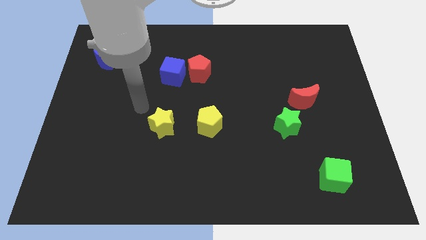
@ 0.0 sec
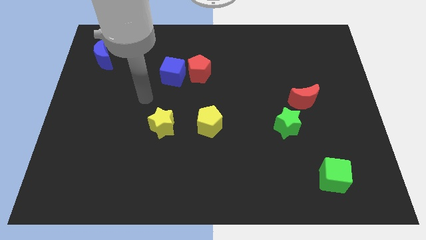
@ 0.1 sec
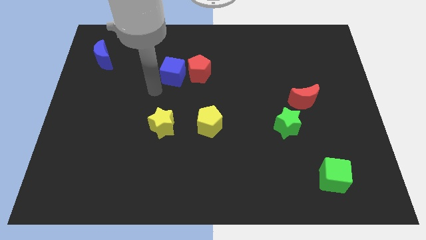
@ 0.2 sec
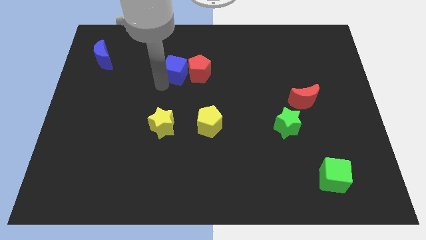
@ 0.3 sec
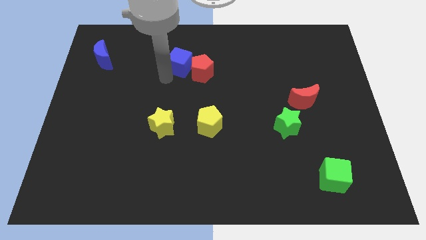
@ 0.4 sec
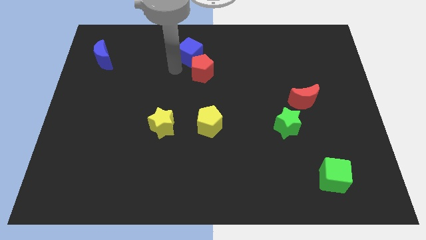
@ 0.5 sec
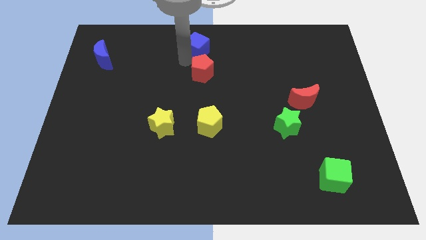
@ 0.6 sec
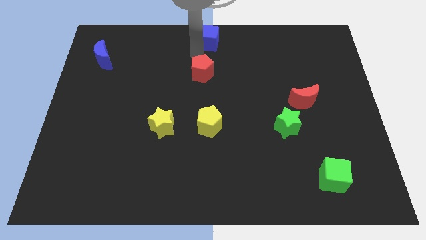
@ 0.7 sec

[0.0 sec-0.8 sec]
separate the red pentagon from the blue cube

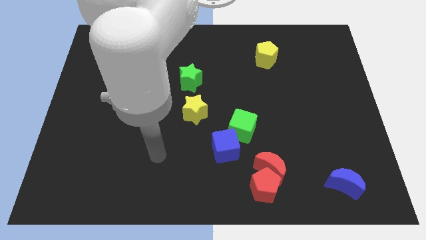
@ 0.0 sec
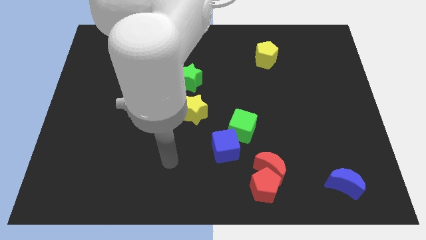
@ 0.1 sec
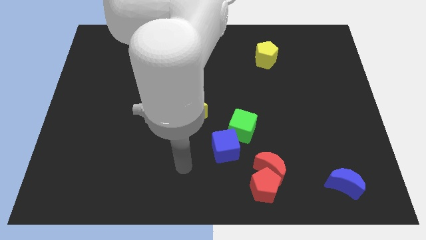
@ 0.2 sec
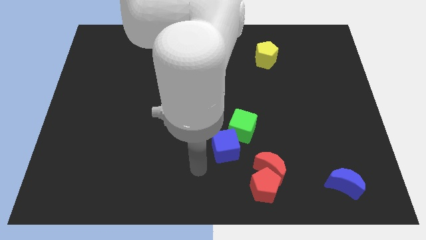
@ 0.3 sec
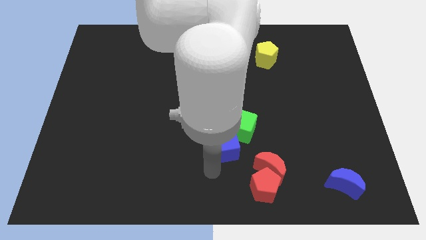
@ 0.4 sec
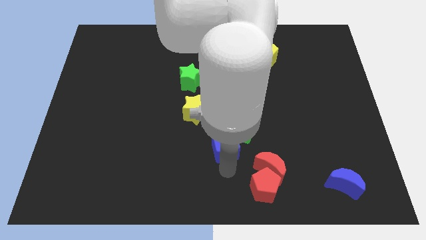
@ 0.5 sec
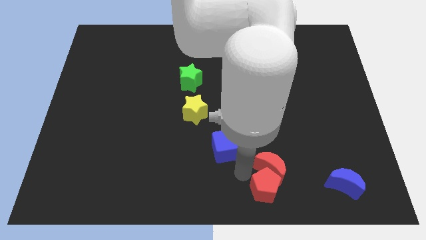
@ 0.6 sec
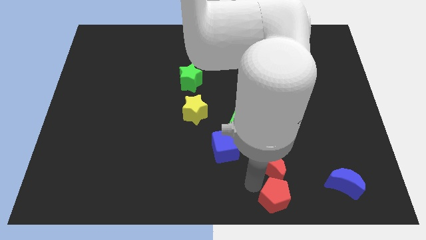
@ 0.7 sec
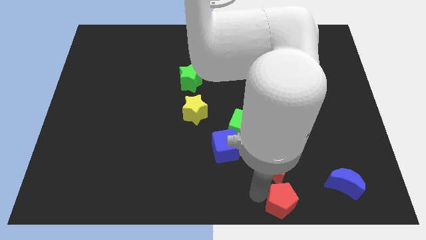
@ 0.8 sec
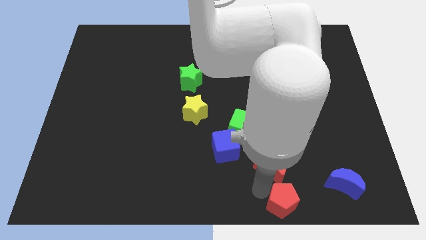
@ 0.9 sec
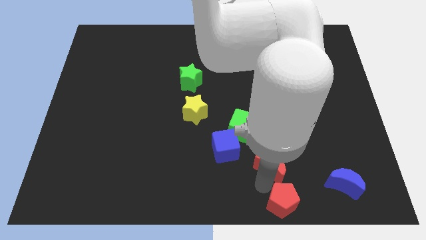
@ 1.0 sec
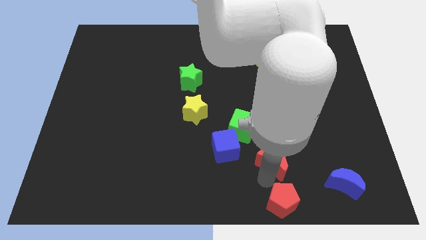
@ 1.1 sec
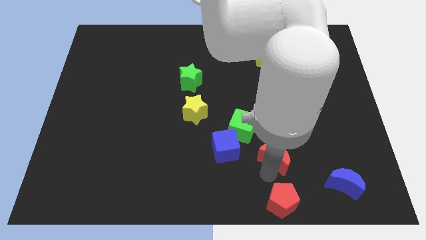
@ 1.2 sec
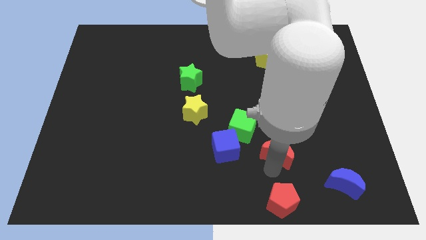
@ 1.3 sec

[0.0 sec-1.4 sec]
pull the red moon apart from the red pentagon

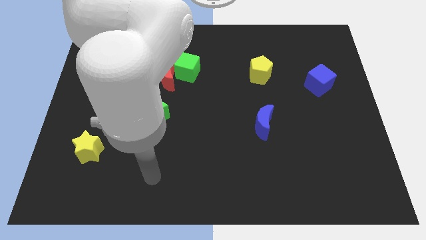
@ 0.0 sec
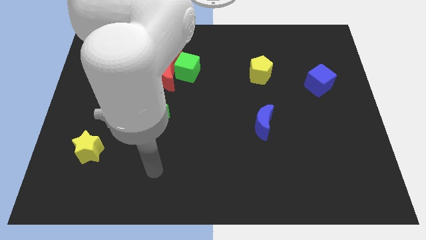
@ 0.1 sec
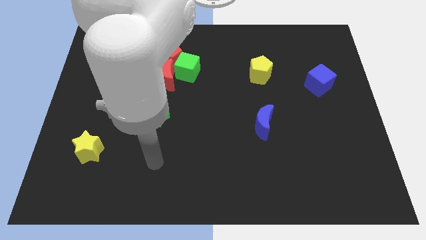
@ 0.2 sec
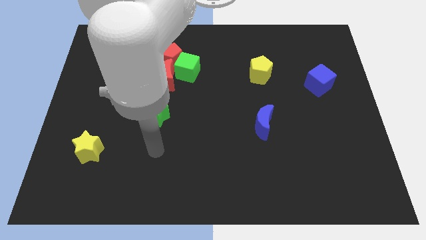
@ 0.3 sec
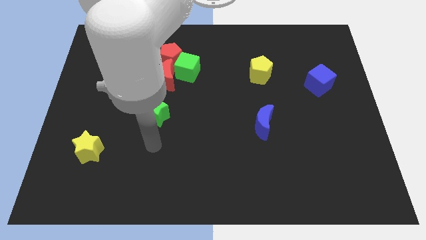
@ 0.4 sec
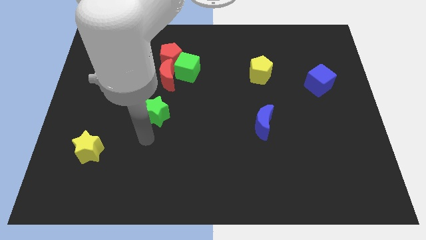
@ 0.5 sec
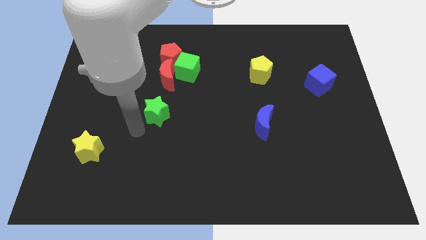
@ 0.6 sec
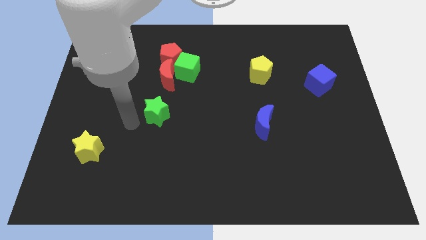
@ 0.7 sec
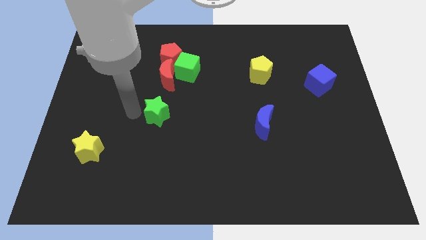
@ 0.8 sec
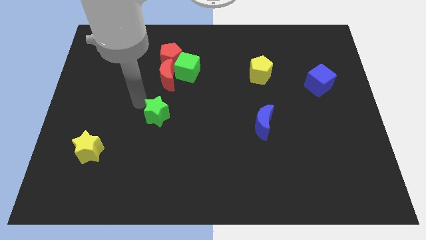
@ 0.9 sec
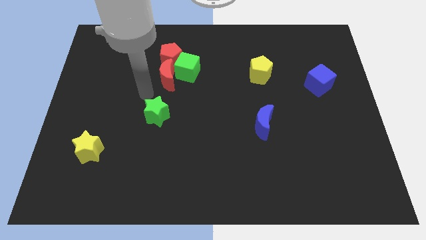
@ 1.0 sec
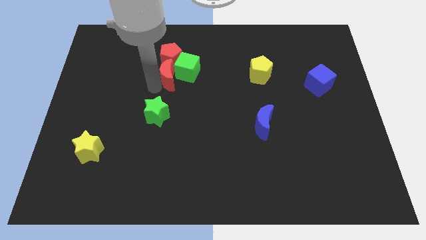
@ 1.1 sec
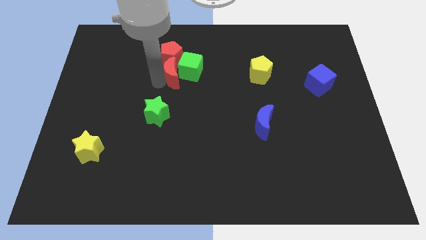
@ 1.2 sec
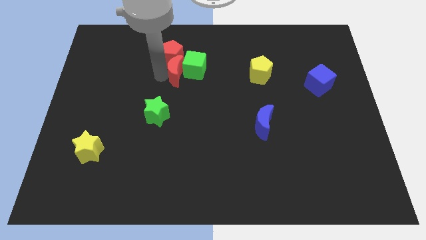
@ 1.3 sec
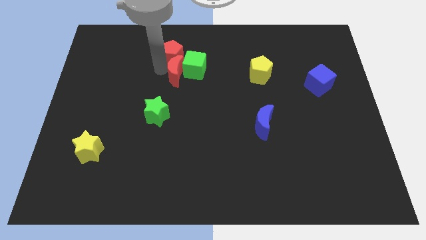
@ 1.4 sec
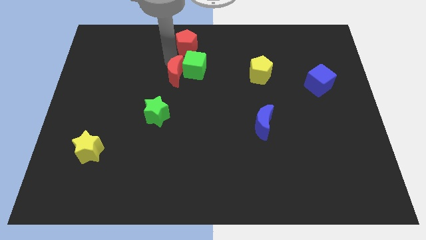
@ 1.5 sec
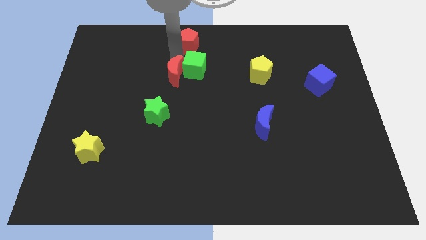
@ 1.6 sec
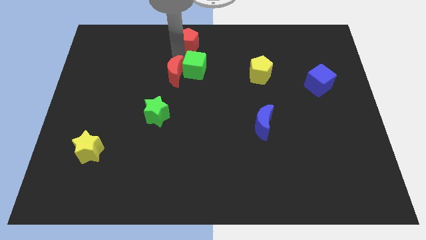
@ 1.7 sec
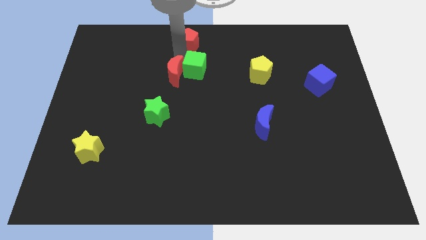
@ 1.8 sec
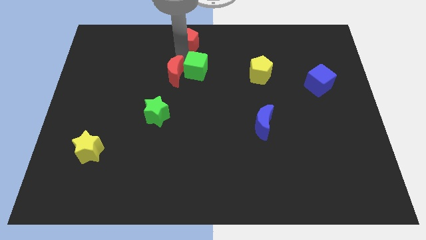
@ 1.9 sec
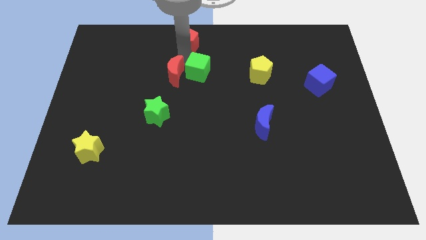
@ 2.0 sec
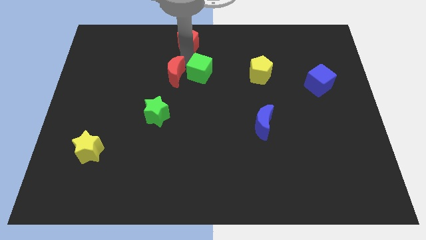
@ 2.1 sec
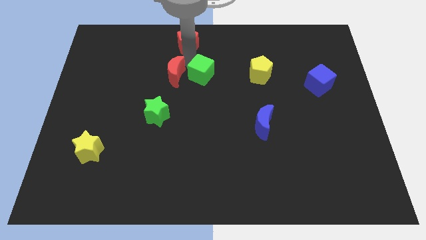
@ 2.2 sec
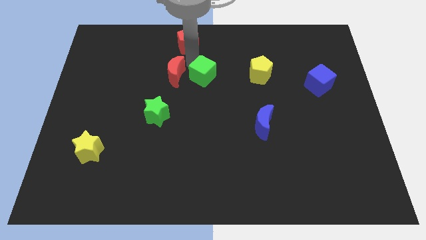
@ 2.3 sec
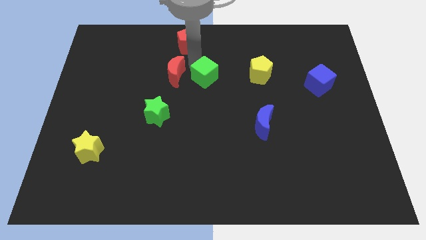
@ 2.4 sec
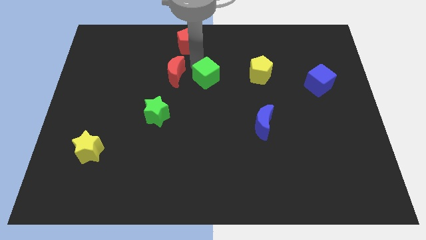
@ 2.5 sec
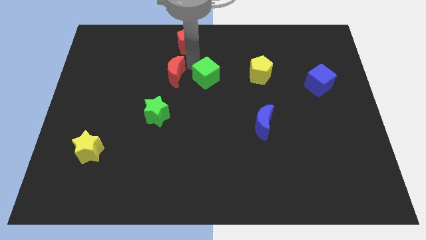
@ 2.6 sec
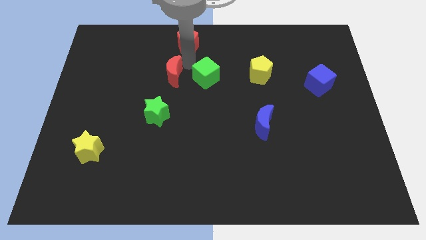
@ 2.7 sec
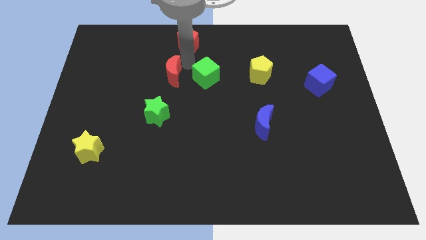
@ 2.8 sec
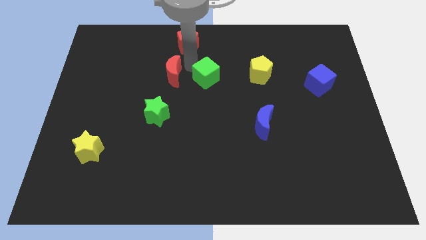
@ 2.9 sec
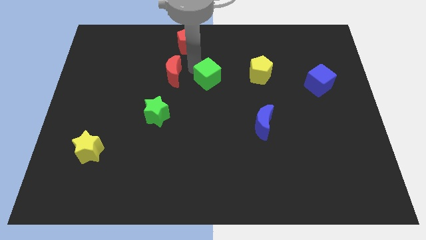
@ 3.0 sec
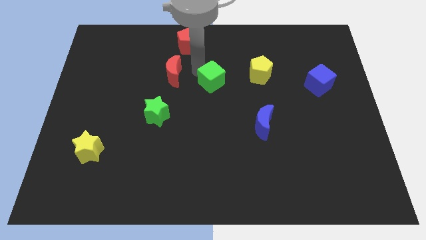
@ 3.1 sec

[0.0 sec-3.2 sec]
separate the green cube from the red moon and red pentagon

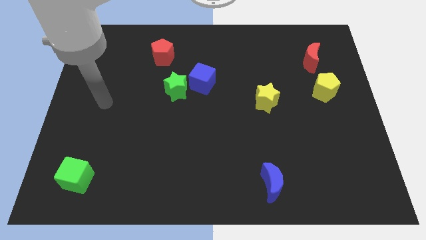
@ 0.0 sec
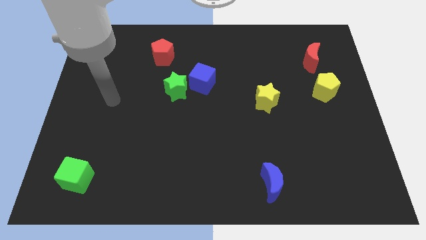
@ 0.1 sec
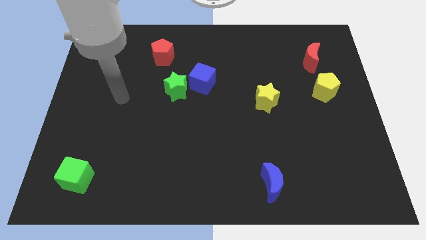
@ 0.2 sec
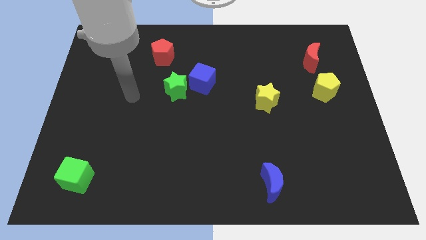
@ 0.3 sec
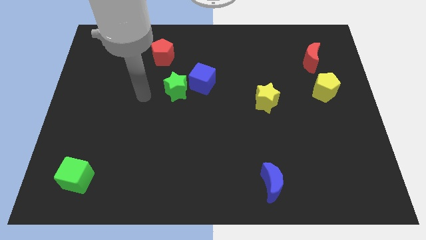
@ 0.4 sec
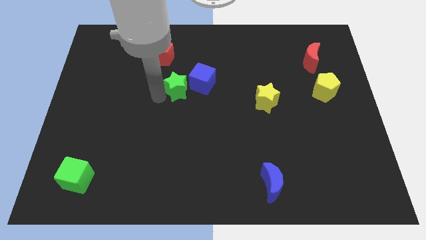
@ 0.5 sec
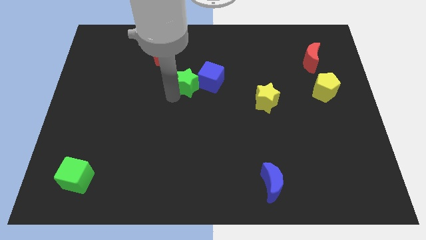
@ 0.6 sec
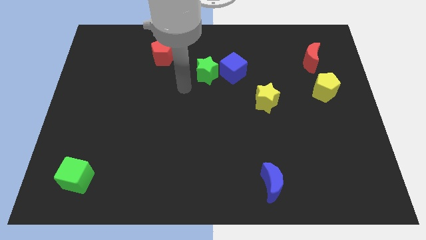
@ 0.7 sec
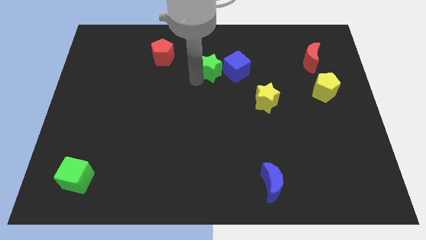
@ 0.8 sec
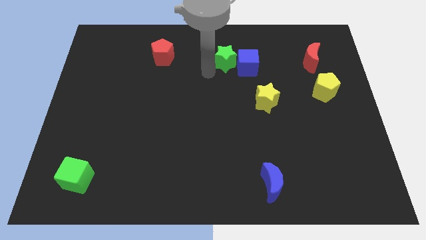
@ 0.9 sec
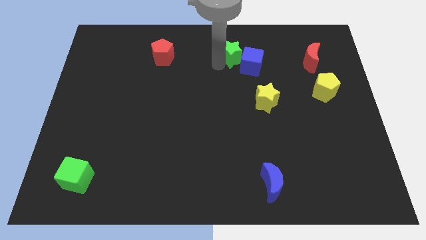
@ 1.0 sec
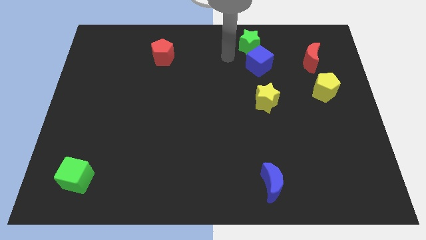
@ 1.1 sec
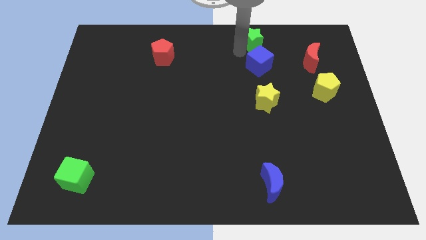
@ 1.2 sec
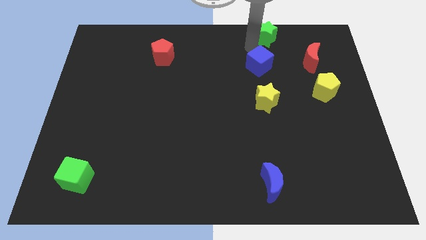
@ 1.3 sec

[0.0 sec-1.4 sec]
move the blue cube away from the green star

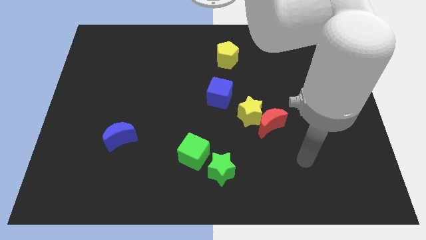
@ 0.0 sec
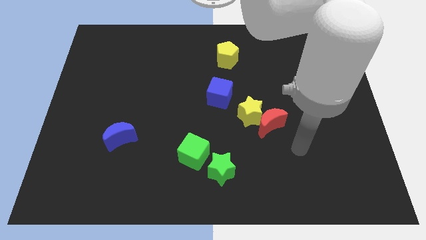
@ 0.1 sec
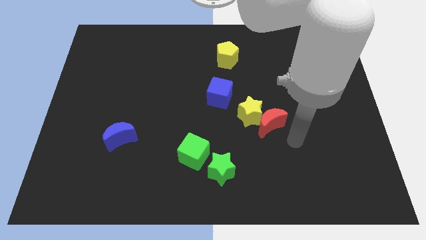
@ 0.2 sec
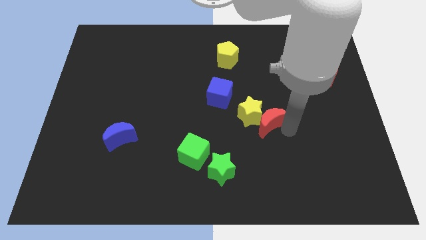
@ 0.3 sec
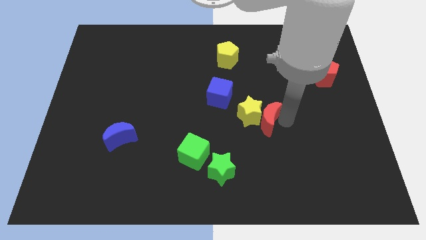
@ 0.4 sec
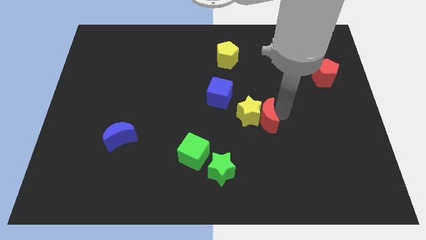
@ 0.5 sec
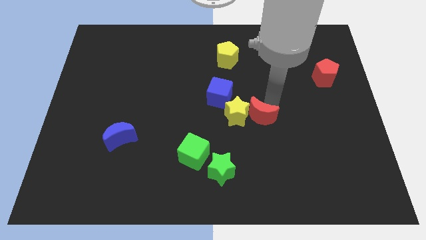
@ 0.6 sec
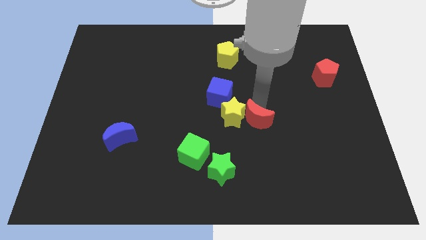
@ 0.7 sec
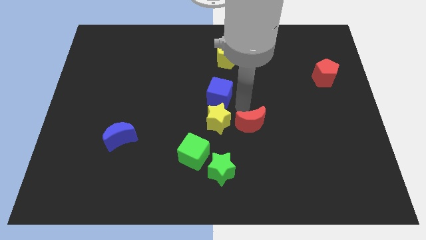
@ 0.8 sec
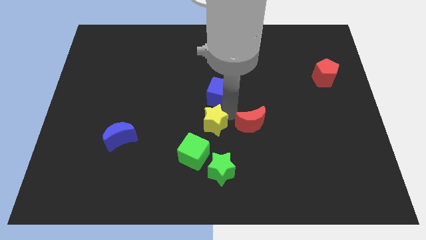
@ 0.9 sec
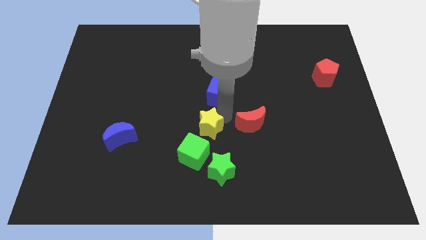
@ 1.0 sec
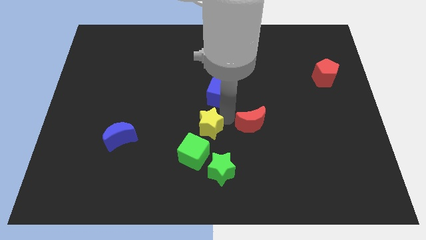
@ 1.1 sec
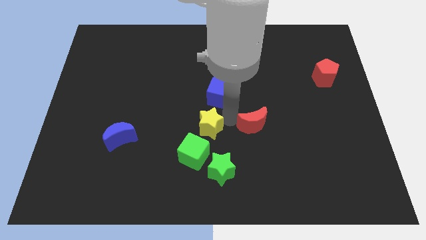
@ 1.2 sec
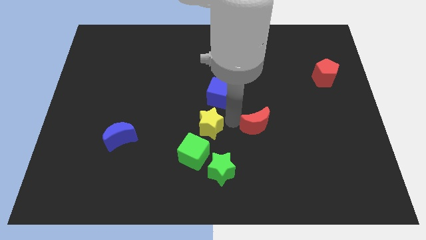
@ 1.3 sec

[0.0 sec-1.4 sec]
pull the red moon apart from the yellow star

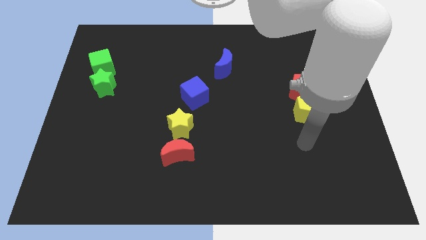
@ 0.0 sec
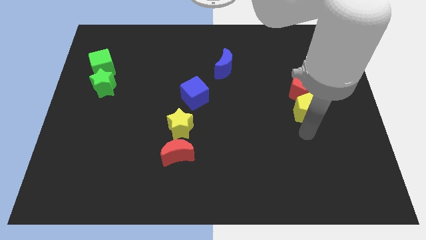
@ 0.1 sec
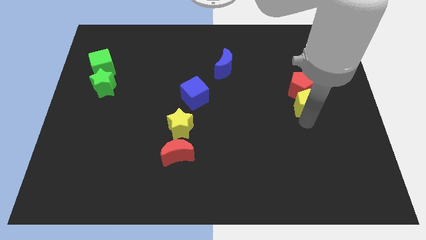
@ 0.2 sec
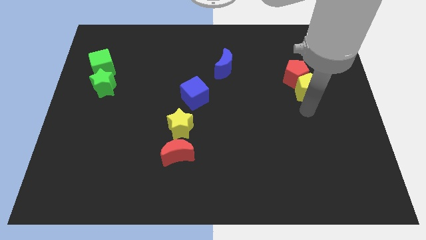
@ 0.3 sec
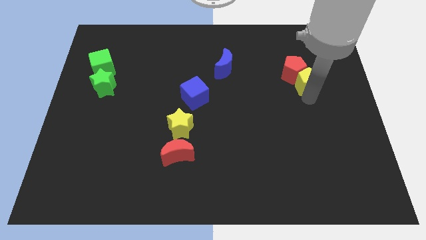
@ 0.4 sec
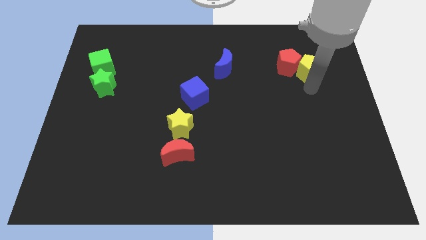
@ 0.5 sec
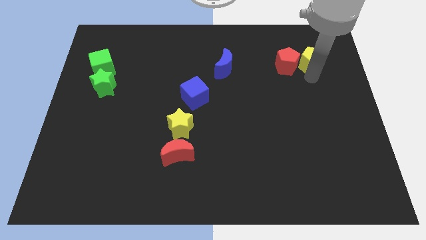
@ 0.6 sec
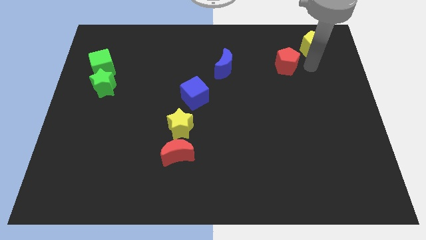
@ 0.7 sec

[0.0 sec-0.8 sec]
move the red pentagon away from the yellow pentagon

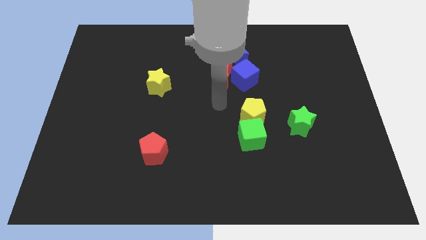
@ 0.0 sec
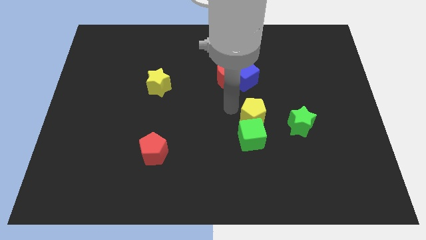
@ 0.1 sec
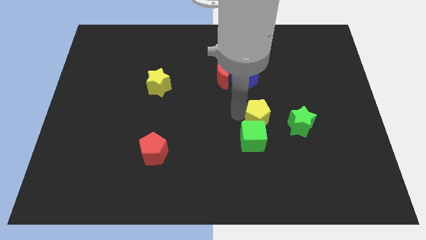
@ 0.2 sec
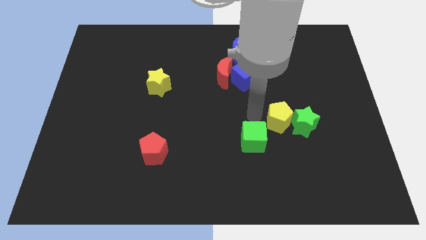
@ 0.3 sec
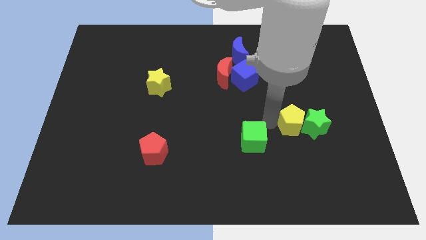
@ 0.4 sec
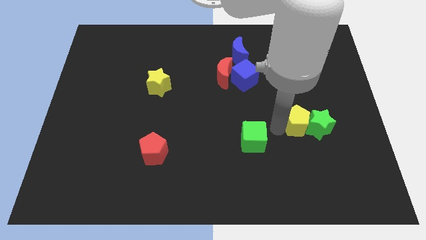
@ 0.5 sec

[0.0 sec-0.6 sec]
pull the green cube apart from the yellow pentagon
